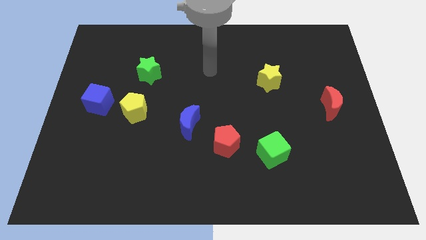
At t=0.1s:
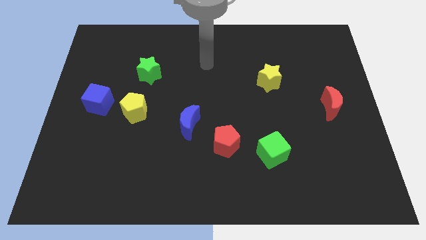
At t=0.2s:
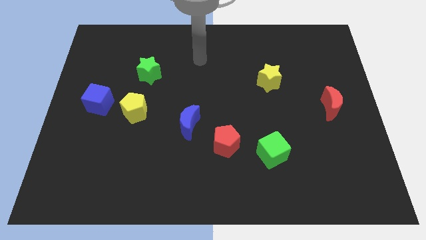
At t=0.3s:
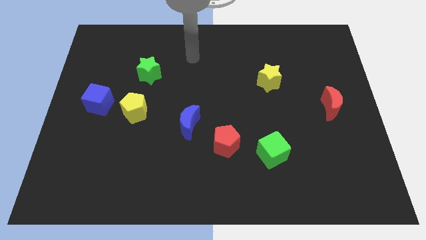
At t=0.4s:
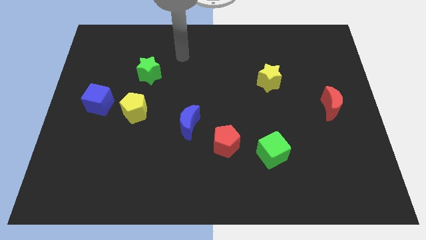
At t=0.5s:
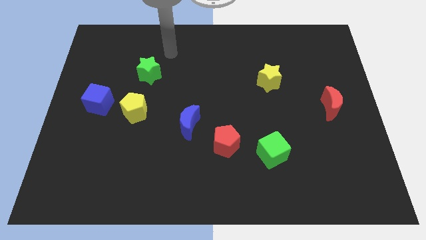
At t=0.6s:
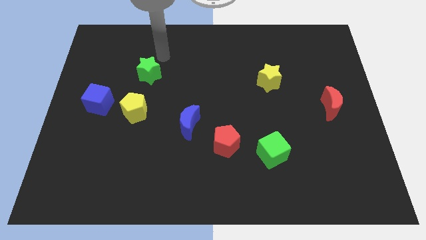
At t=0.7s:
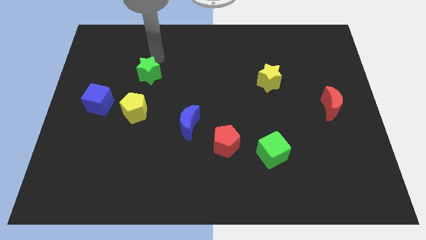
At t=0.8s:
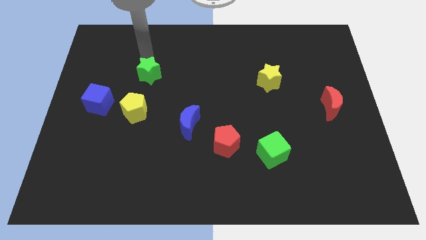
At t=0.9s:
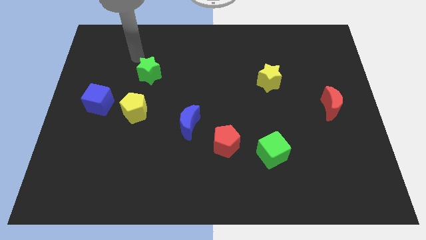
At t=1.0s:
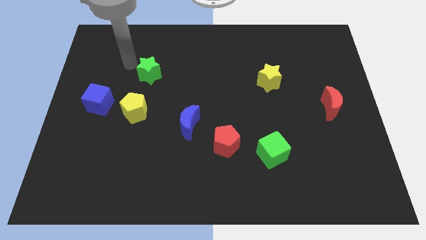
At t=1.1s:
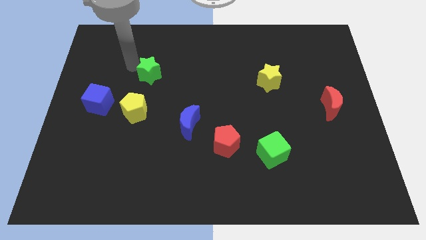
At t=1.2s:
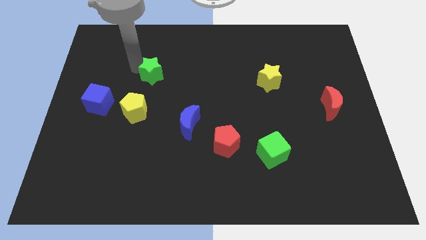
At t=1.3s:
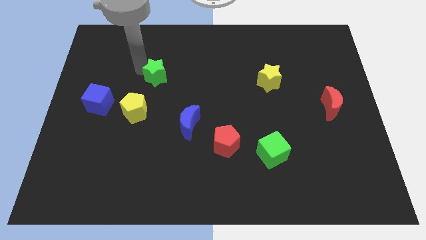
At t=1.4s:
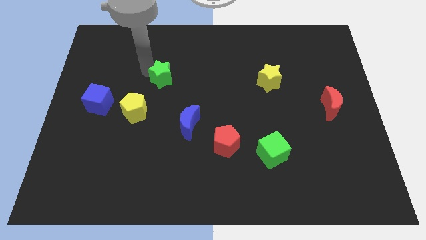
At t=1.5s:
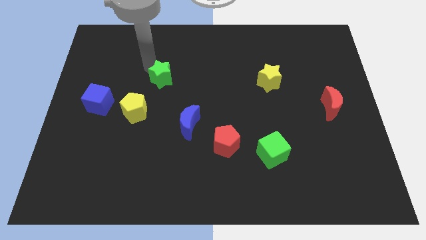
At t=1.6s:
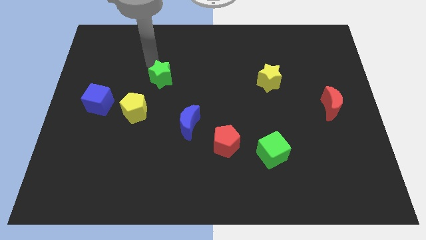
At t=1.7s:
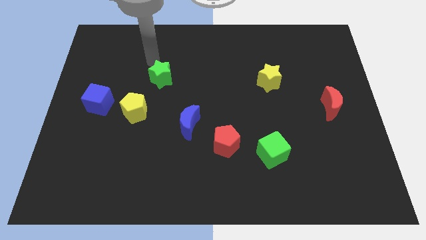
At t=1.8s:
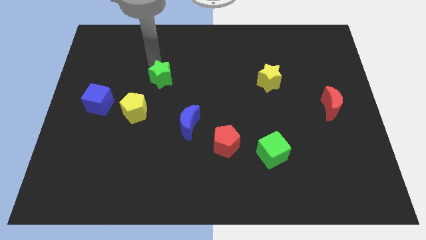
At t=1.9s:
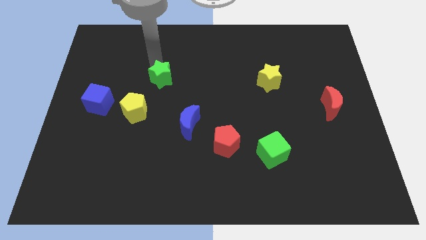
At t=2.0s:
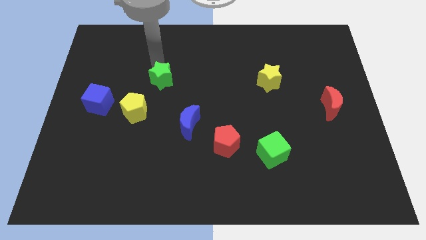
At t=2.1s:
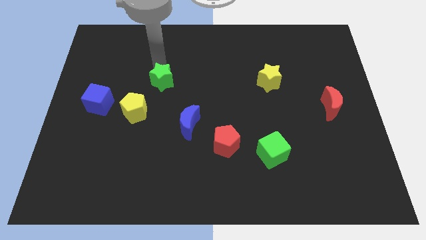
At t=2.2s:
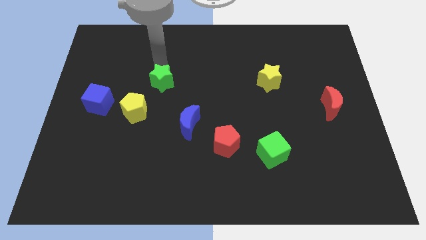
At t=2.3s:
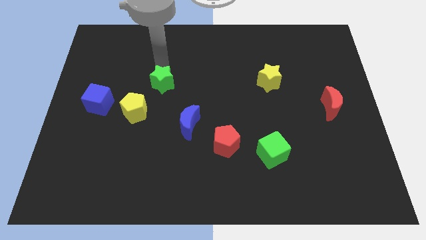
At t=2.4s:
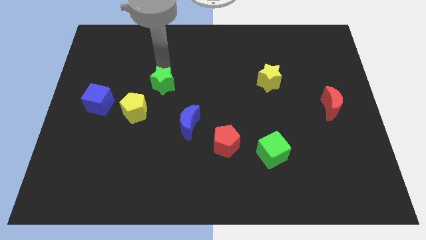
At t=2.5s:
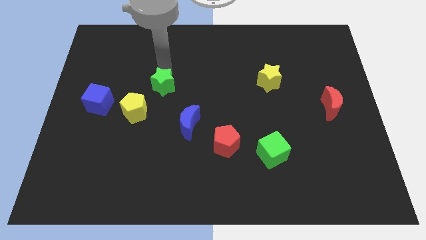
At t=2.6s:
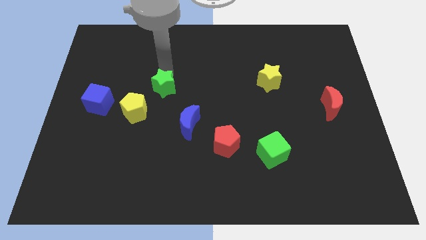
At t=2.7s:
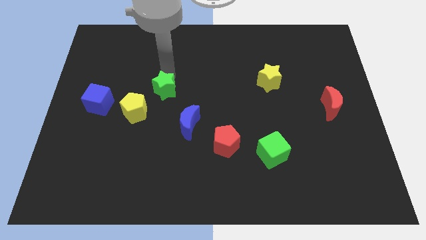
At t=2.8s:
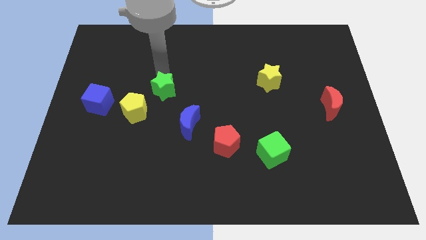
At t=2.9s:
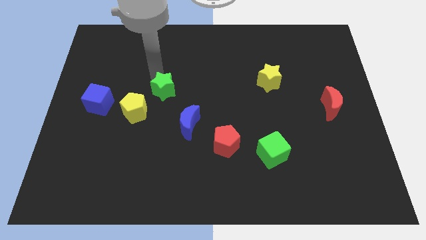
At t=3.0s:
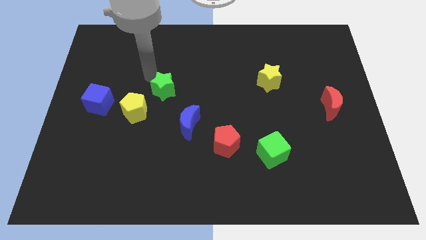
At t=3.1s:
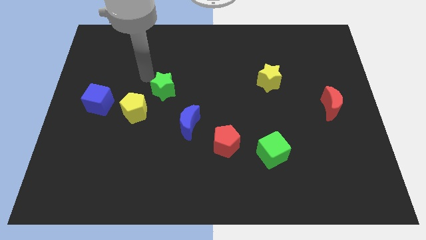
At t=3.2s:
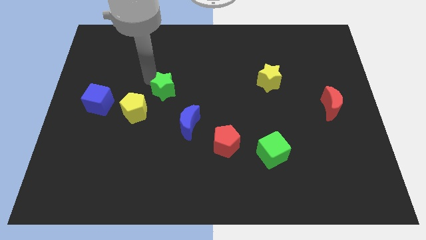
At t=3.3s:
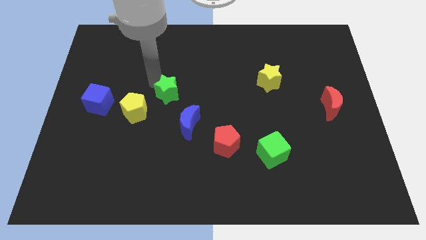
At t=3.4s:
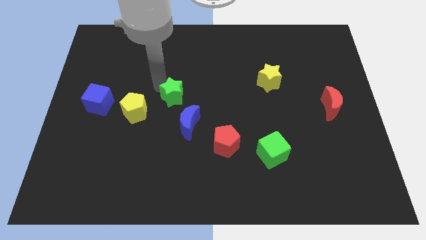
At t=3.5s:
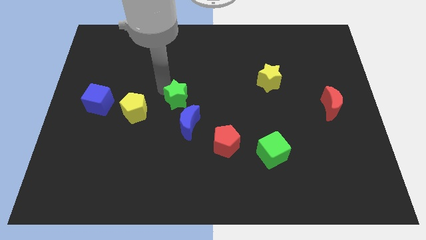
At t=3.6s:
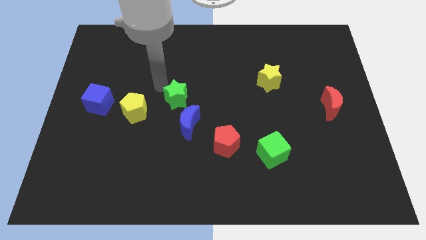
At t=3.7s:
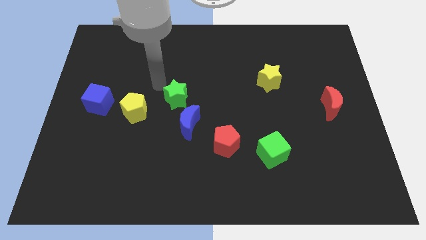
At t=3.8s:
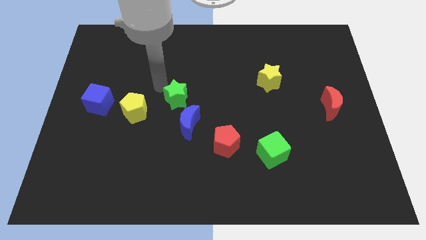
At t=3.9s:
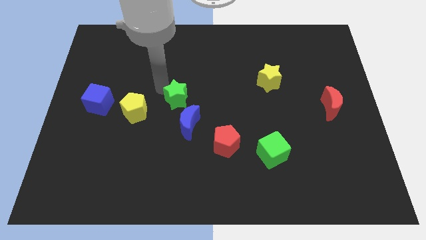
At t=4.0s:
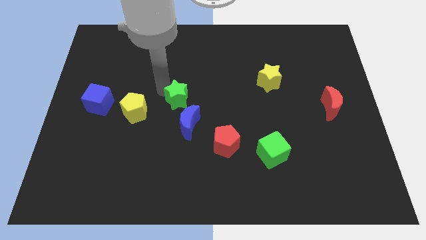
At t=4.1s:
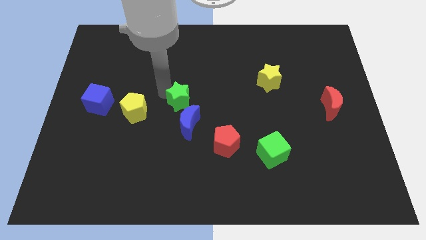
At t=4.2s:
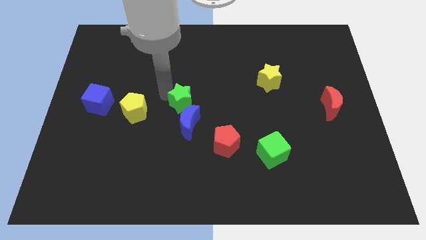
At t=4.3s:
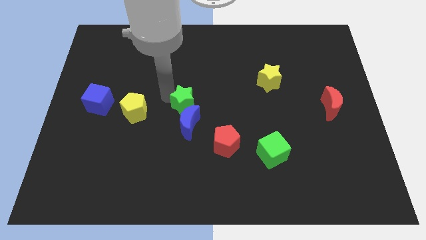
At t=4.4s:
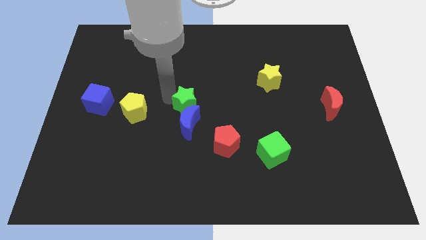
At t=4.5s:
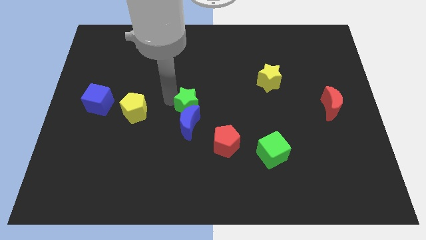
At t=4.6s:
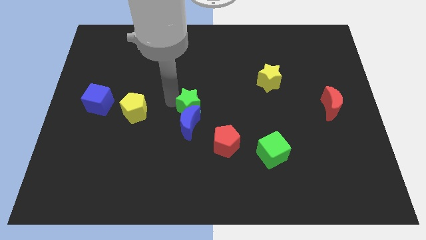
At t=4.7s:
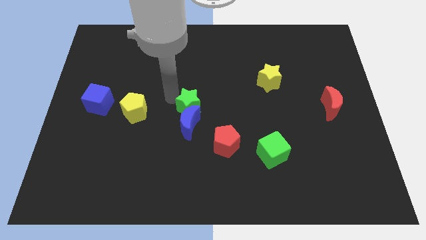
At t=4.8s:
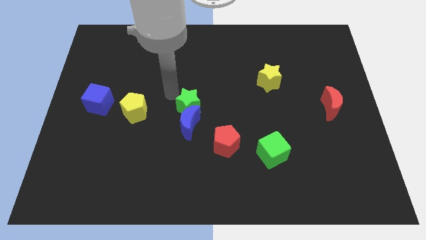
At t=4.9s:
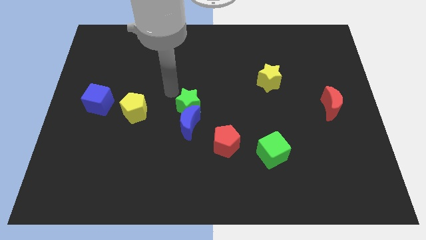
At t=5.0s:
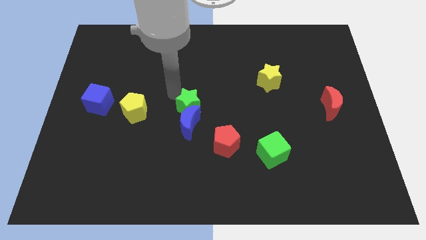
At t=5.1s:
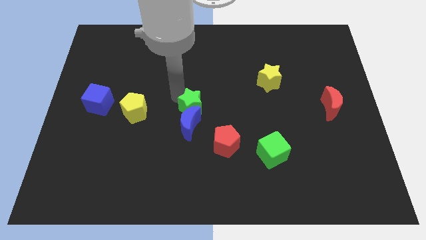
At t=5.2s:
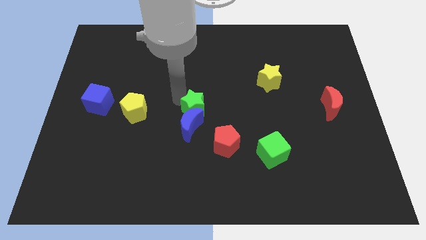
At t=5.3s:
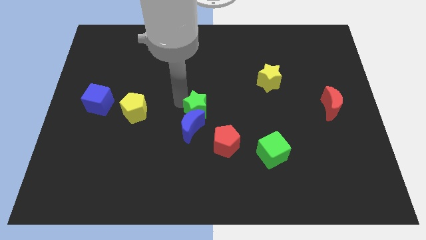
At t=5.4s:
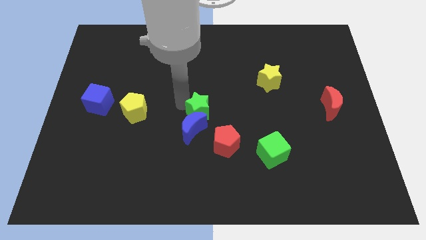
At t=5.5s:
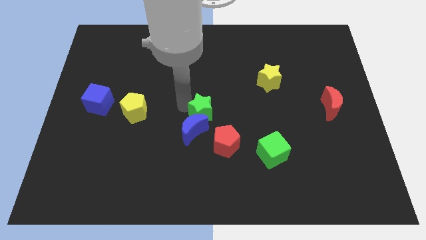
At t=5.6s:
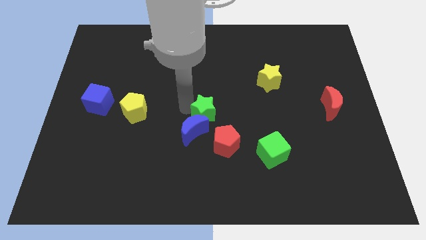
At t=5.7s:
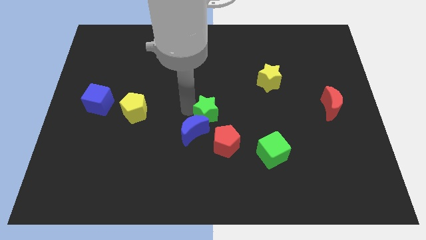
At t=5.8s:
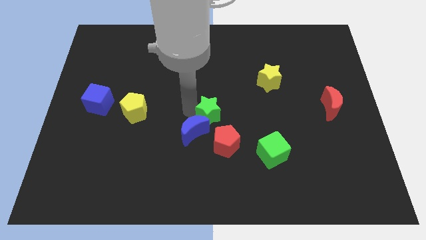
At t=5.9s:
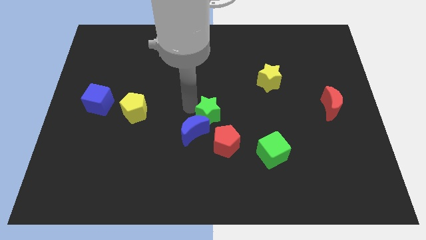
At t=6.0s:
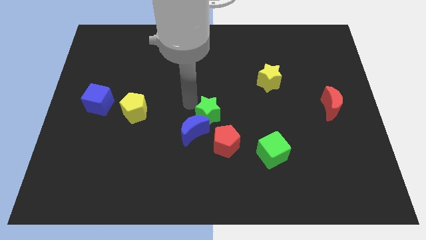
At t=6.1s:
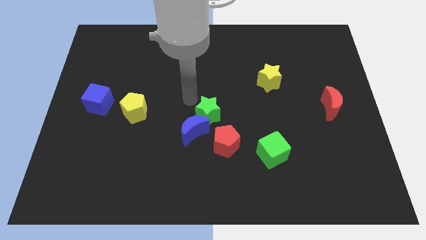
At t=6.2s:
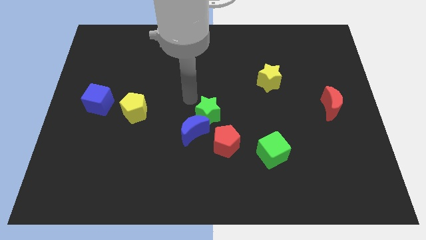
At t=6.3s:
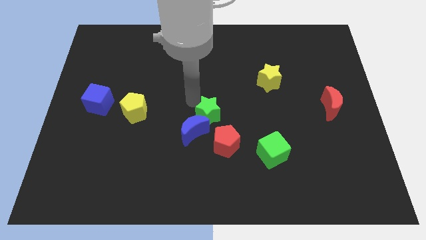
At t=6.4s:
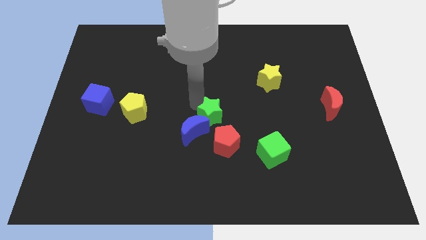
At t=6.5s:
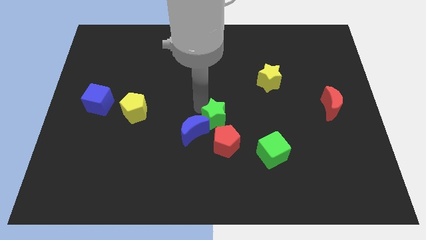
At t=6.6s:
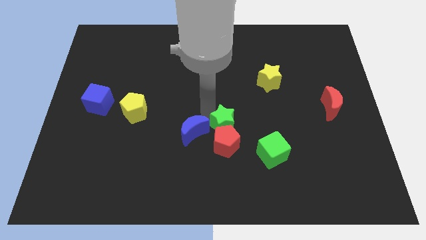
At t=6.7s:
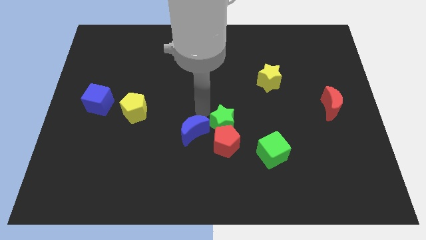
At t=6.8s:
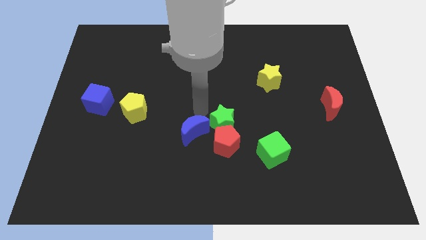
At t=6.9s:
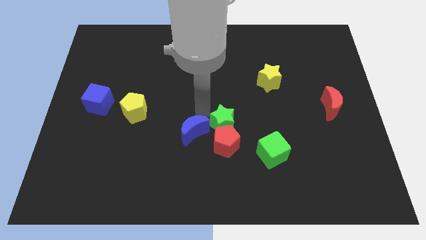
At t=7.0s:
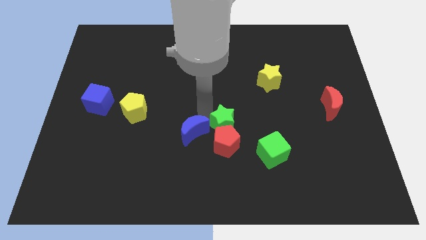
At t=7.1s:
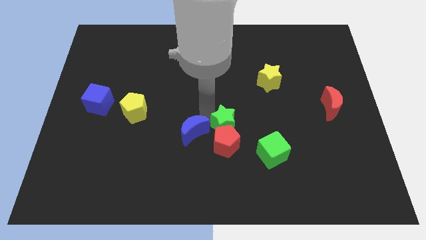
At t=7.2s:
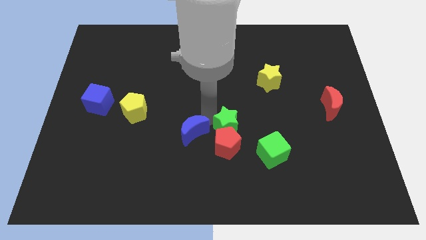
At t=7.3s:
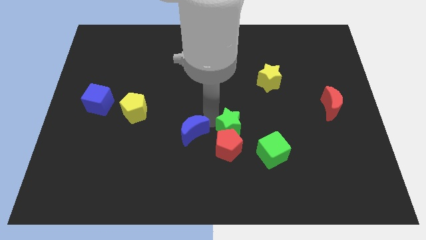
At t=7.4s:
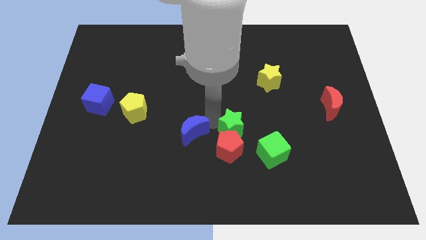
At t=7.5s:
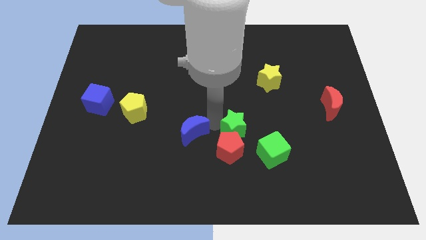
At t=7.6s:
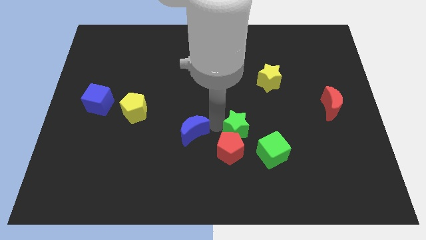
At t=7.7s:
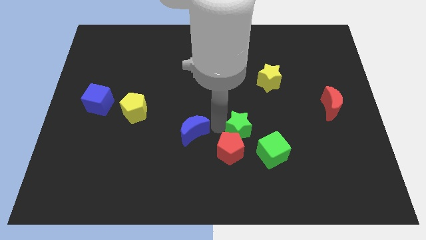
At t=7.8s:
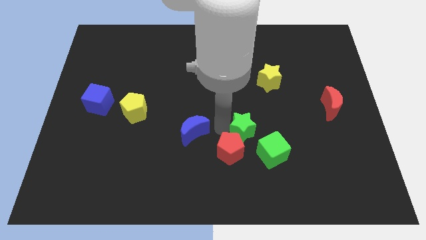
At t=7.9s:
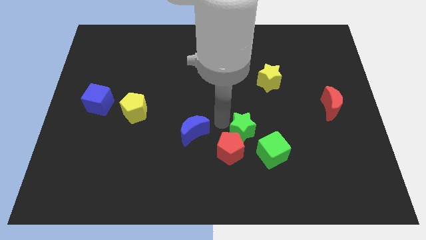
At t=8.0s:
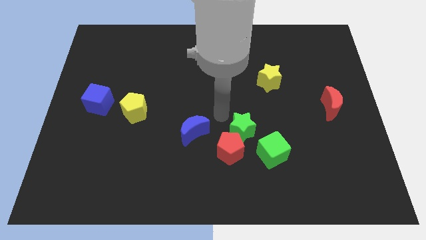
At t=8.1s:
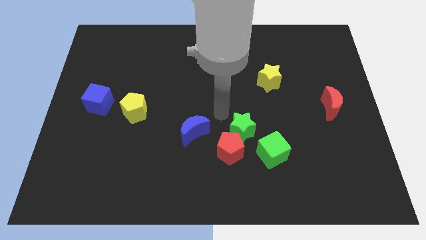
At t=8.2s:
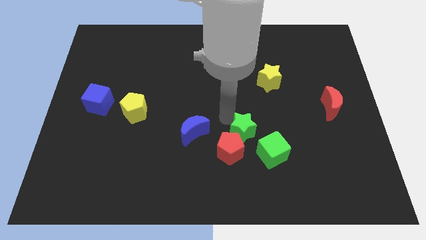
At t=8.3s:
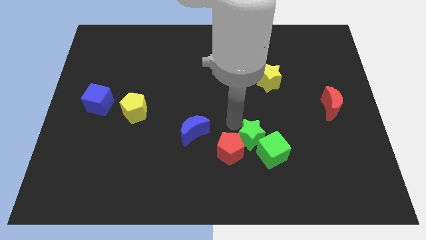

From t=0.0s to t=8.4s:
move the green star close to the green cube
